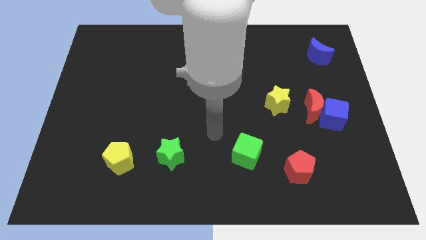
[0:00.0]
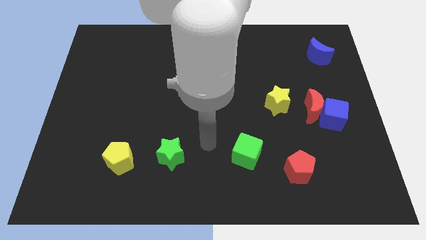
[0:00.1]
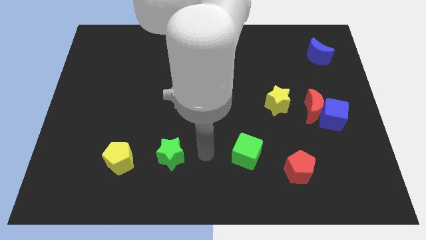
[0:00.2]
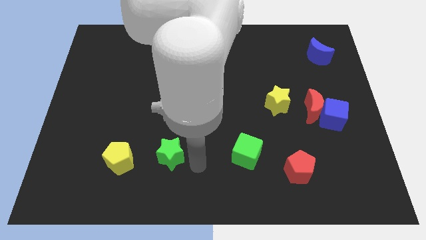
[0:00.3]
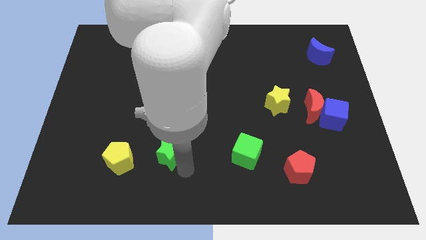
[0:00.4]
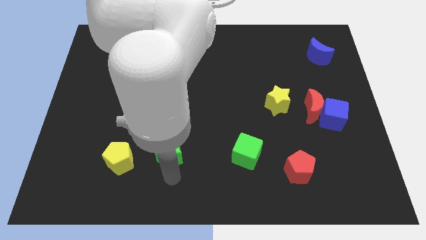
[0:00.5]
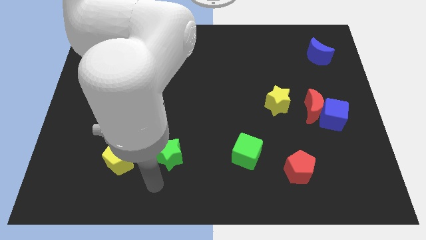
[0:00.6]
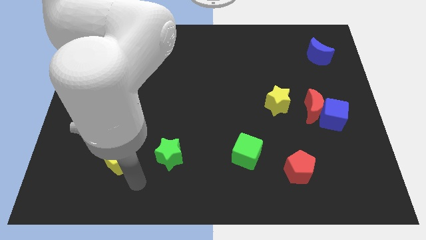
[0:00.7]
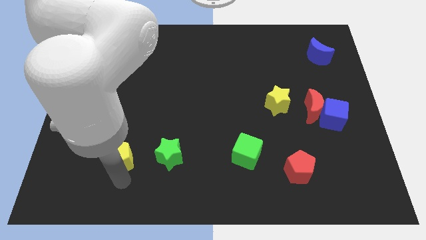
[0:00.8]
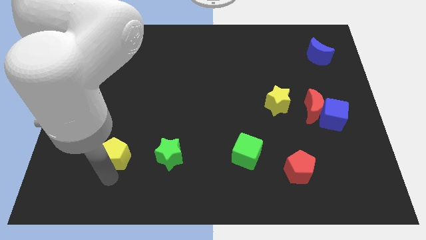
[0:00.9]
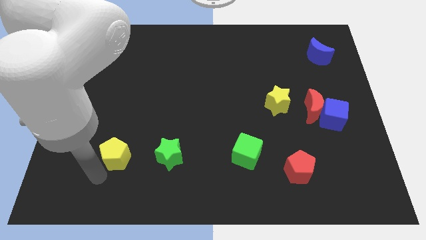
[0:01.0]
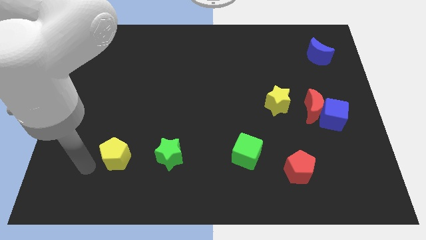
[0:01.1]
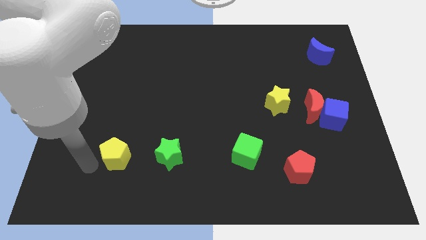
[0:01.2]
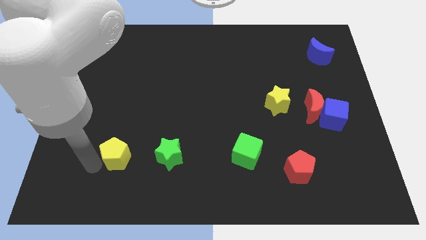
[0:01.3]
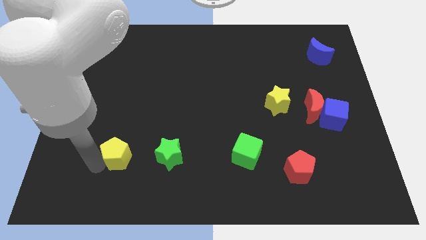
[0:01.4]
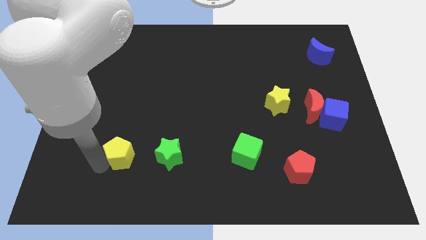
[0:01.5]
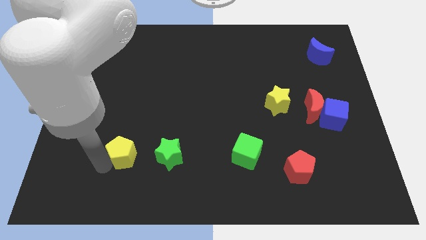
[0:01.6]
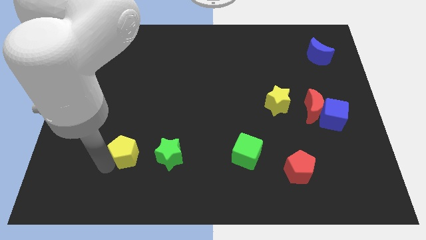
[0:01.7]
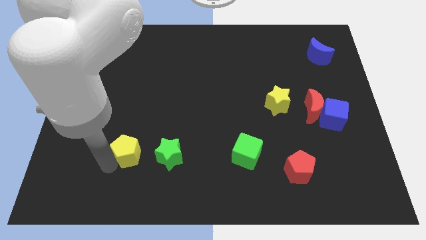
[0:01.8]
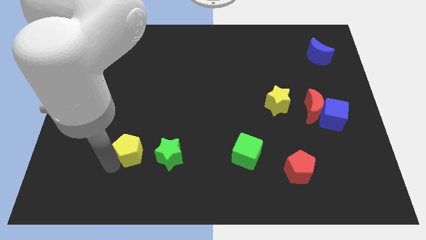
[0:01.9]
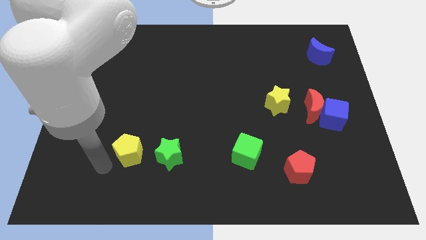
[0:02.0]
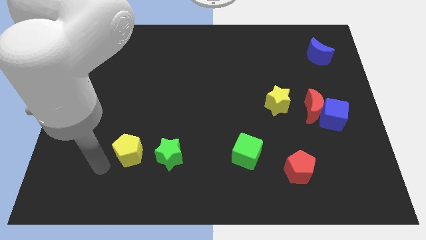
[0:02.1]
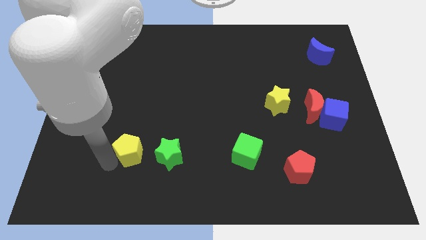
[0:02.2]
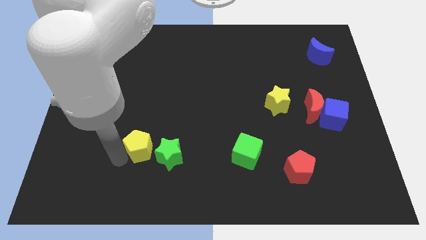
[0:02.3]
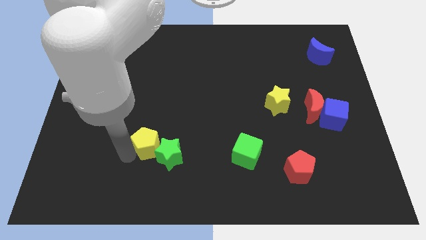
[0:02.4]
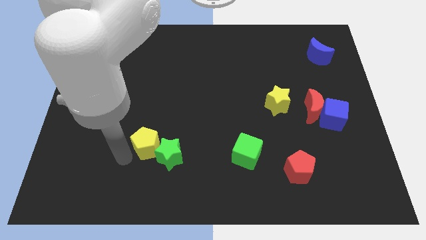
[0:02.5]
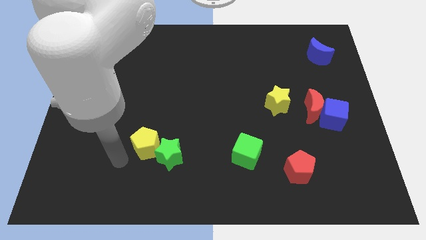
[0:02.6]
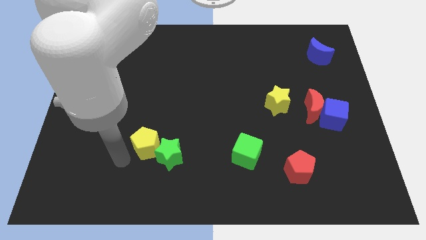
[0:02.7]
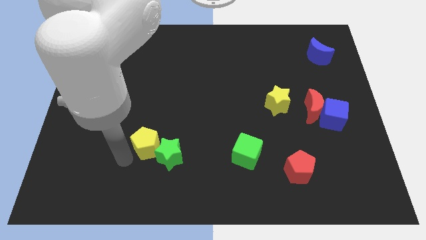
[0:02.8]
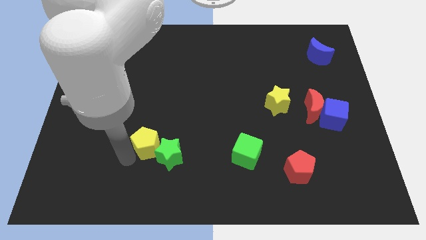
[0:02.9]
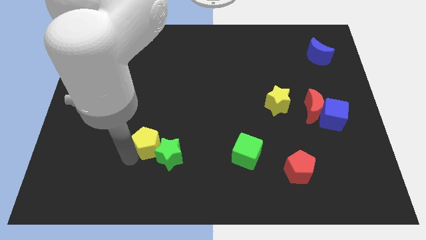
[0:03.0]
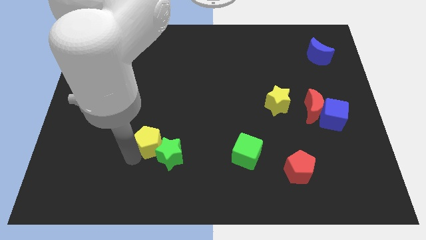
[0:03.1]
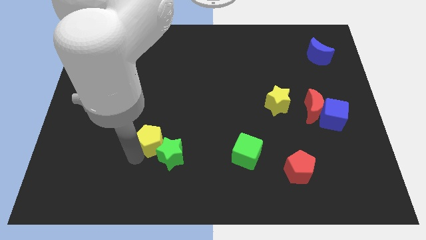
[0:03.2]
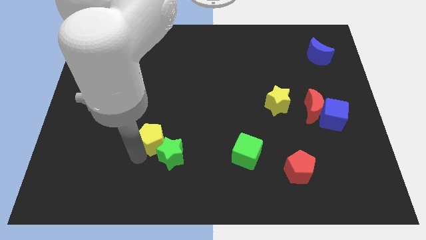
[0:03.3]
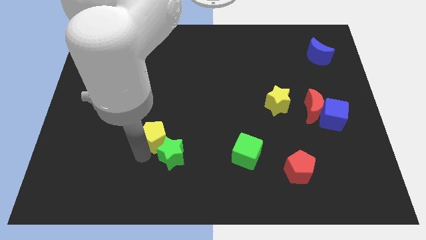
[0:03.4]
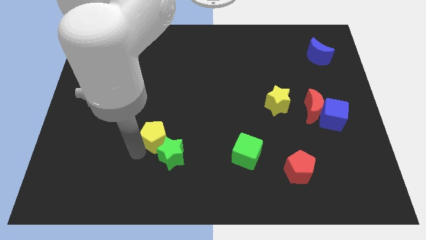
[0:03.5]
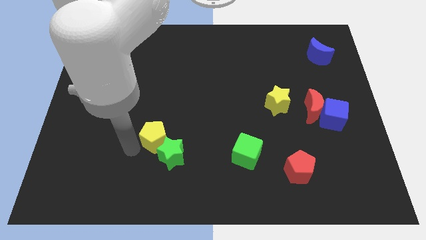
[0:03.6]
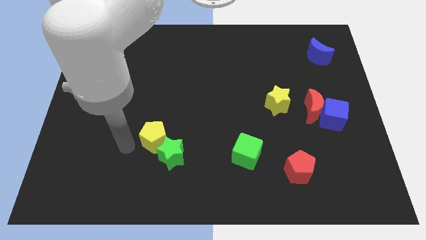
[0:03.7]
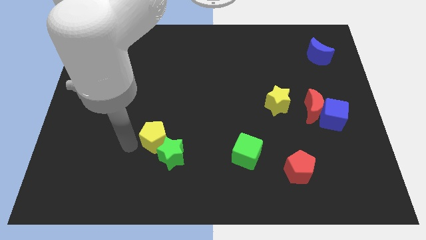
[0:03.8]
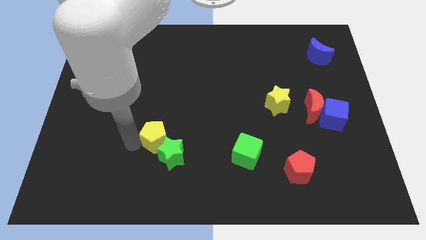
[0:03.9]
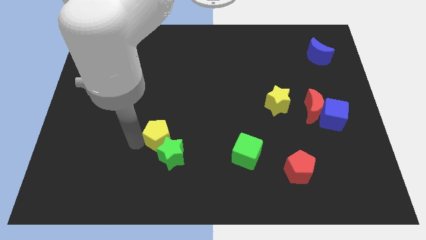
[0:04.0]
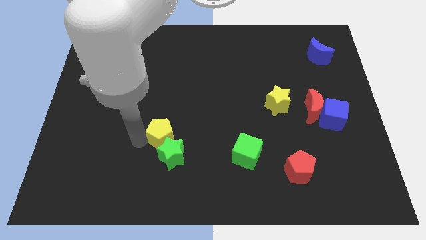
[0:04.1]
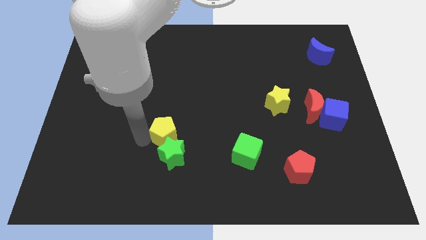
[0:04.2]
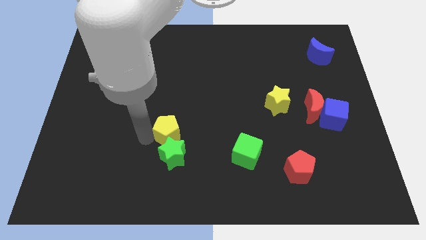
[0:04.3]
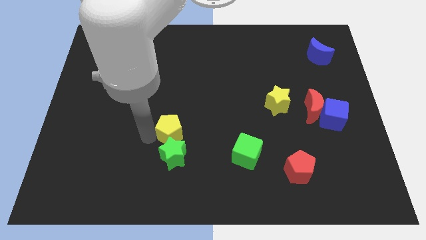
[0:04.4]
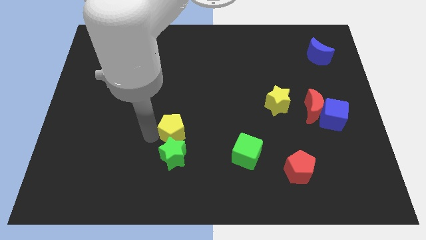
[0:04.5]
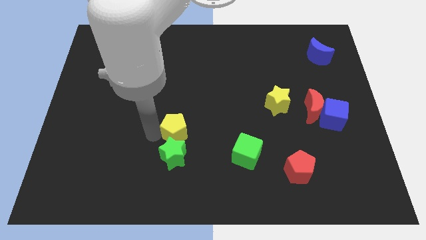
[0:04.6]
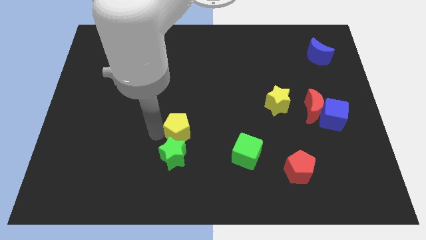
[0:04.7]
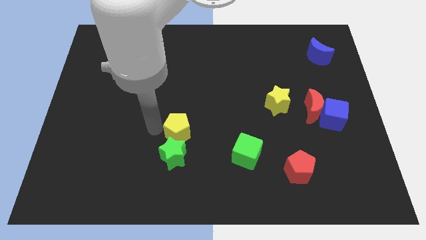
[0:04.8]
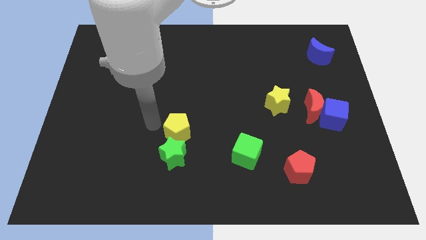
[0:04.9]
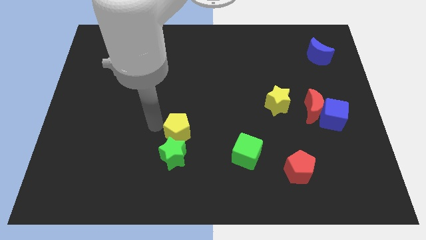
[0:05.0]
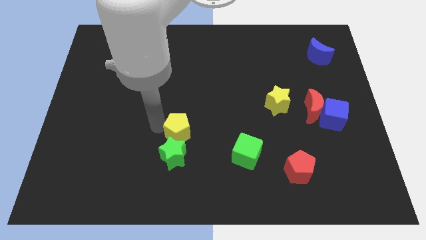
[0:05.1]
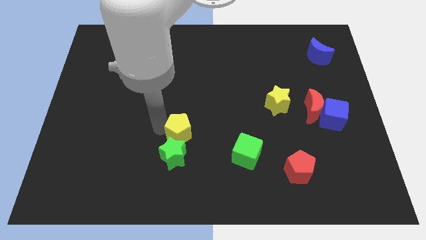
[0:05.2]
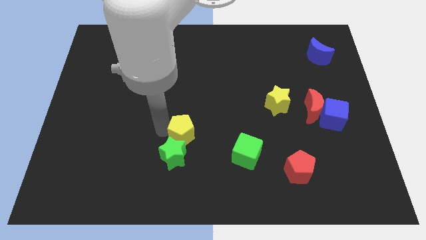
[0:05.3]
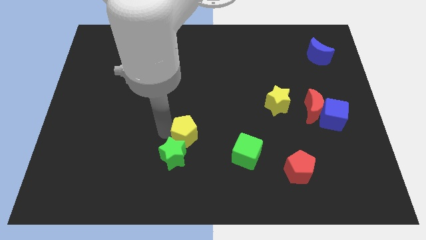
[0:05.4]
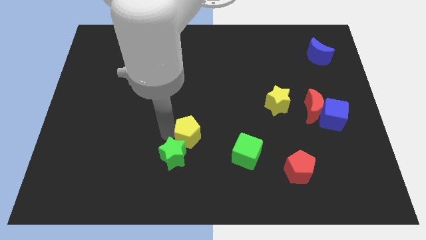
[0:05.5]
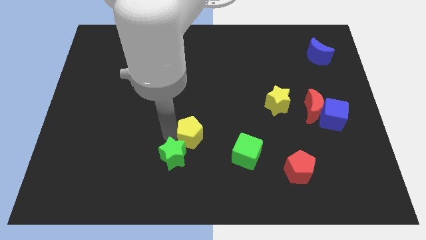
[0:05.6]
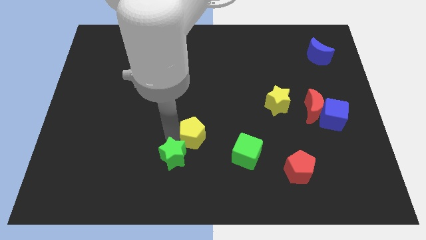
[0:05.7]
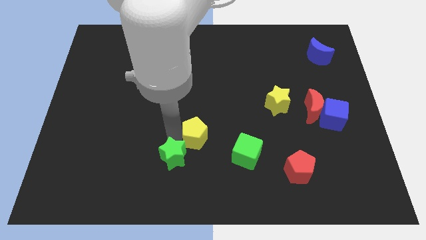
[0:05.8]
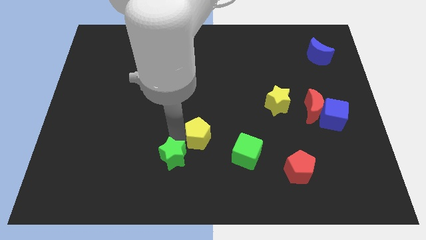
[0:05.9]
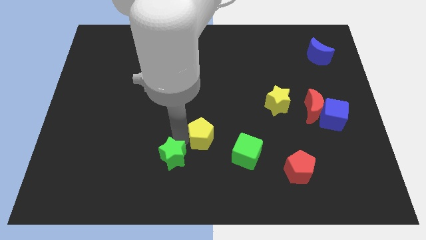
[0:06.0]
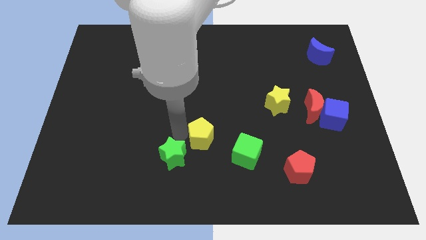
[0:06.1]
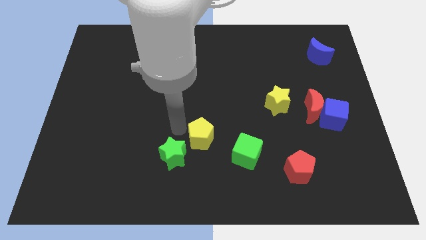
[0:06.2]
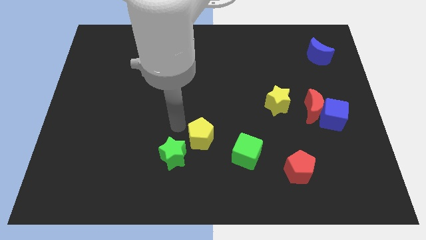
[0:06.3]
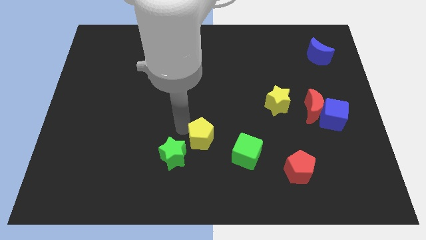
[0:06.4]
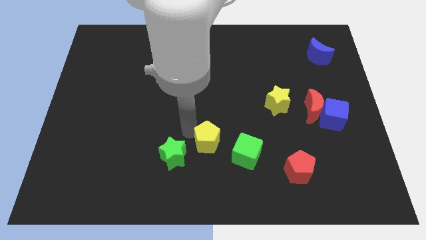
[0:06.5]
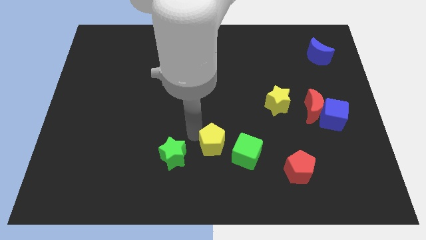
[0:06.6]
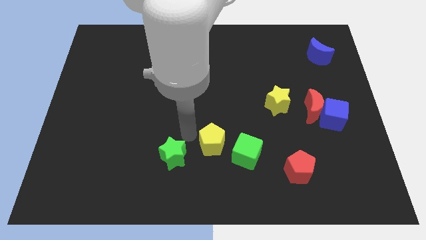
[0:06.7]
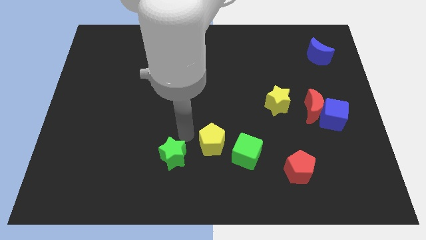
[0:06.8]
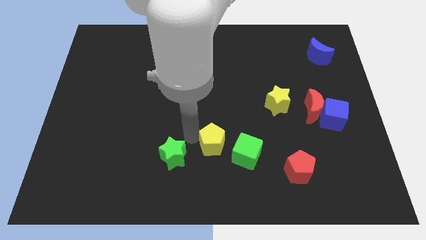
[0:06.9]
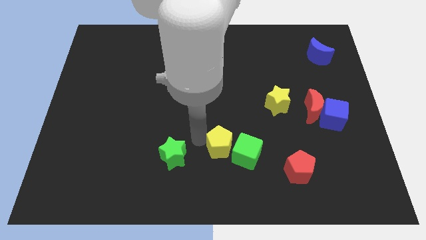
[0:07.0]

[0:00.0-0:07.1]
slide the yellow pentagon towards the green cube
